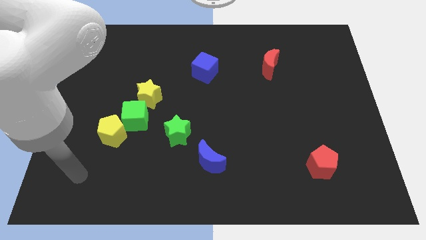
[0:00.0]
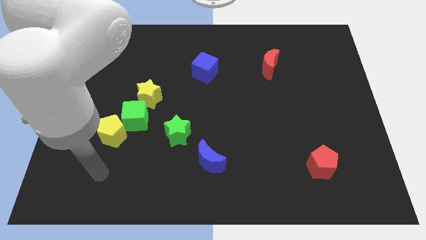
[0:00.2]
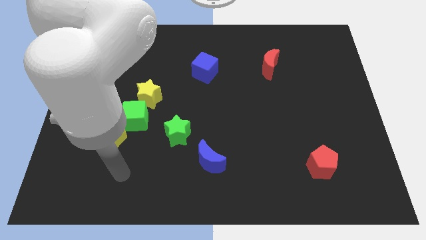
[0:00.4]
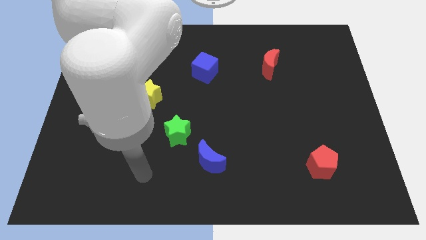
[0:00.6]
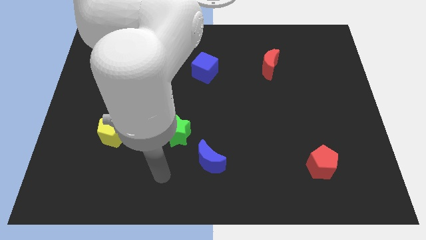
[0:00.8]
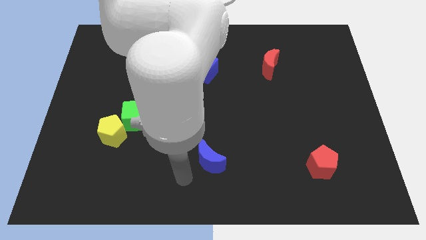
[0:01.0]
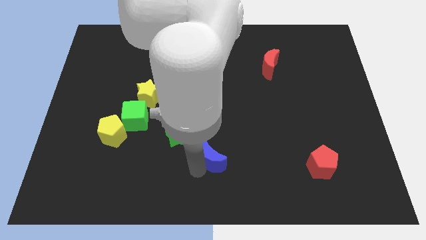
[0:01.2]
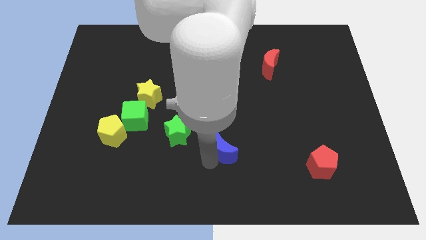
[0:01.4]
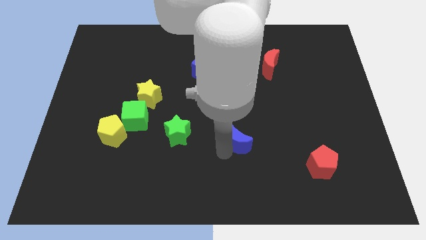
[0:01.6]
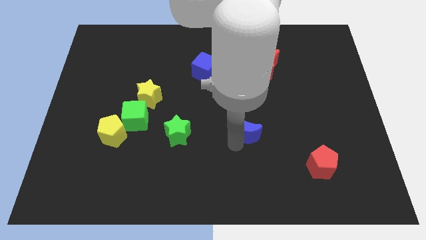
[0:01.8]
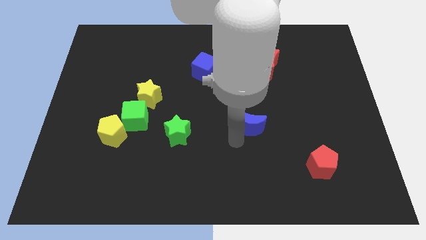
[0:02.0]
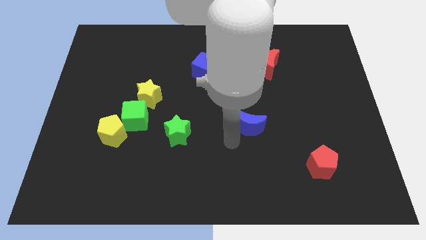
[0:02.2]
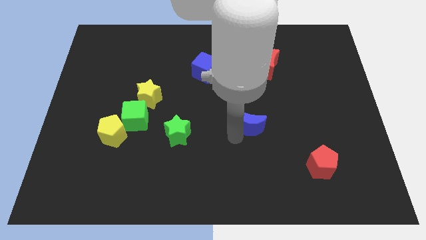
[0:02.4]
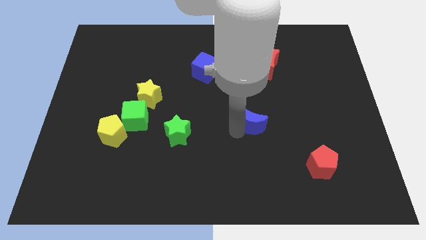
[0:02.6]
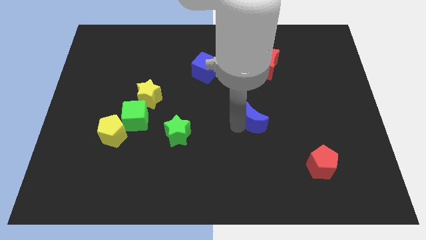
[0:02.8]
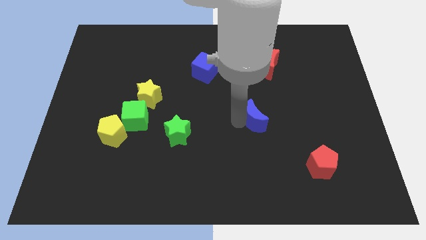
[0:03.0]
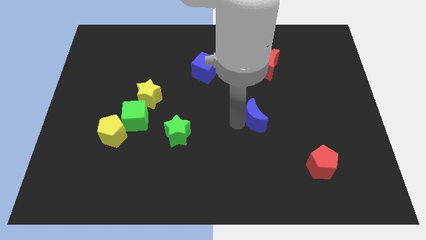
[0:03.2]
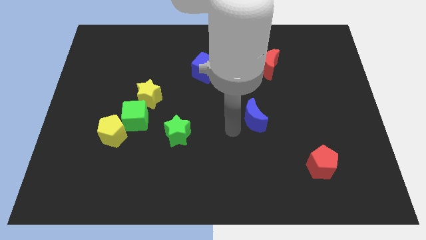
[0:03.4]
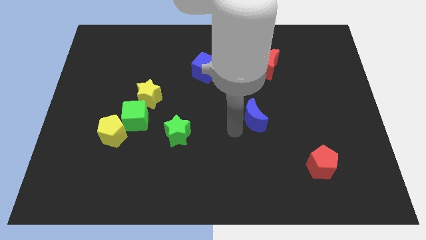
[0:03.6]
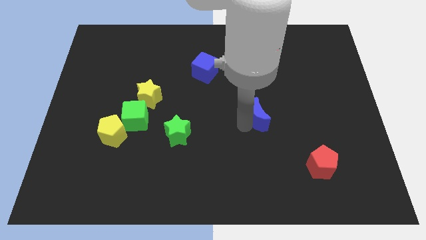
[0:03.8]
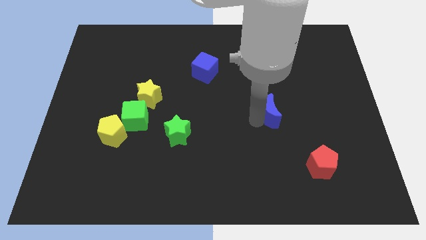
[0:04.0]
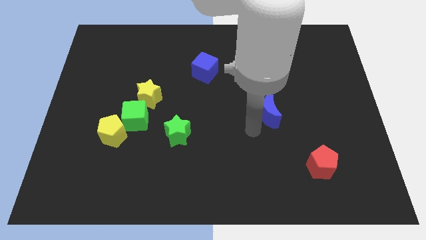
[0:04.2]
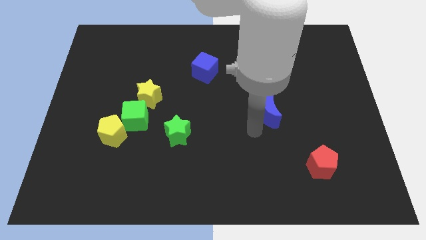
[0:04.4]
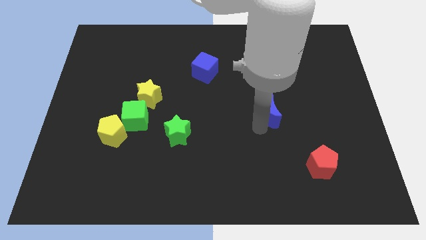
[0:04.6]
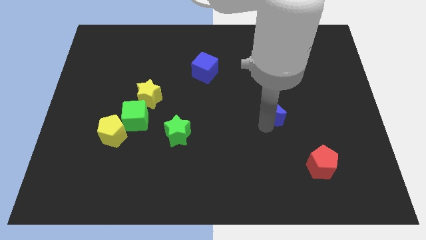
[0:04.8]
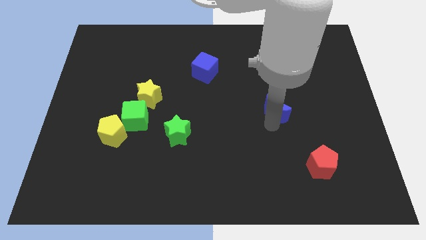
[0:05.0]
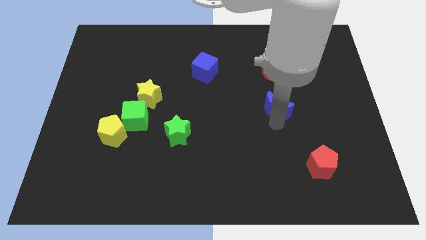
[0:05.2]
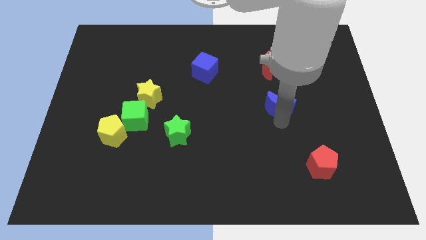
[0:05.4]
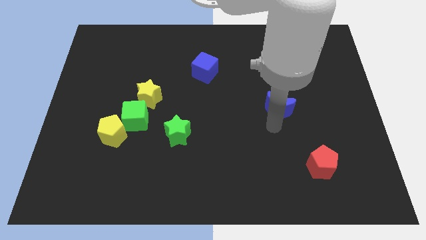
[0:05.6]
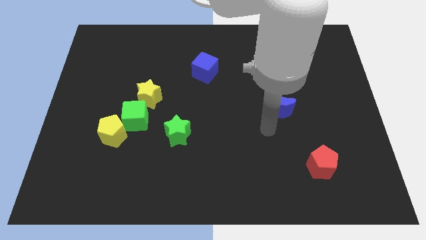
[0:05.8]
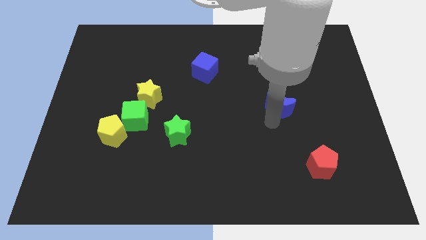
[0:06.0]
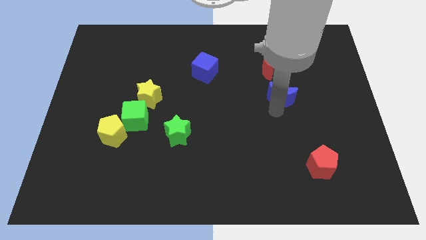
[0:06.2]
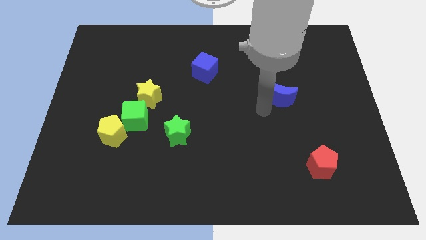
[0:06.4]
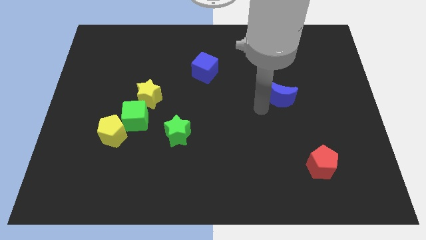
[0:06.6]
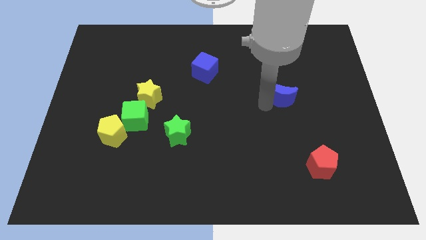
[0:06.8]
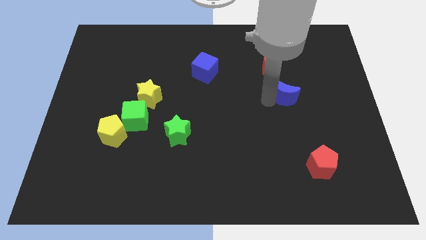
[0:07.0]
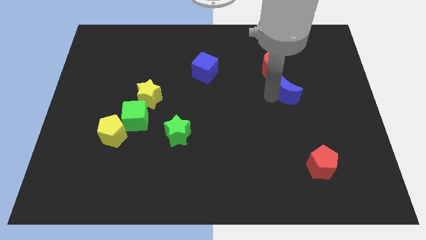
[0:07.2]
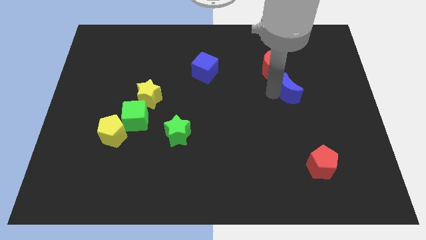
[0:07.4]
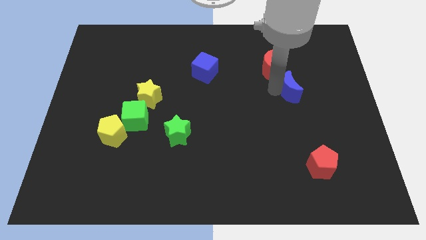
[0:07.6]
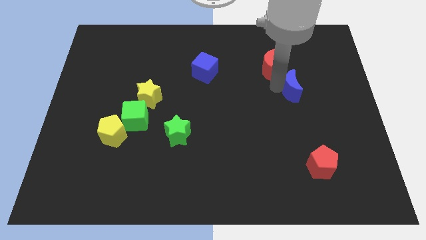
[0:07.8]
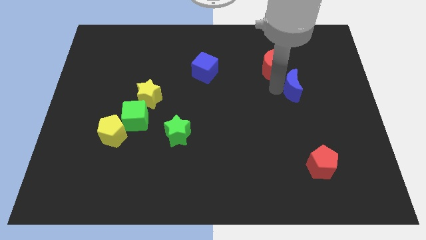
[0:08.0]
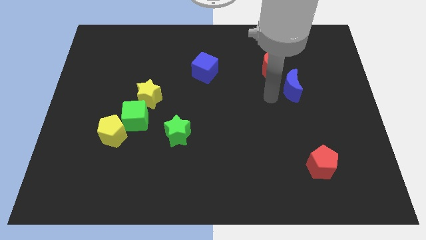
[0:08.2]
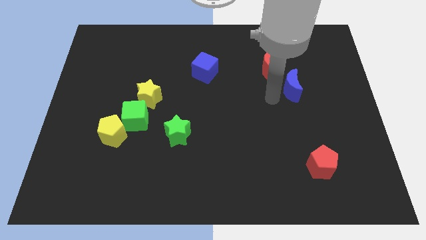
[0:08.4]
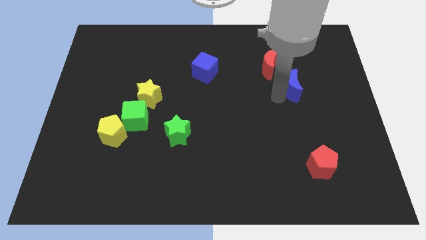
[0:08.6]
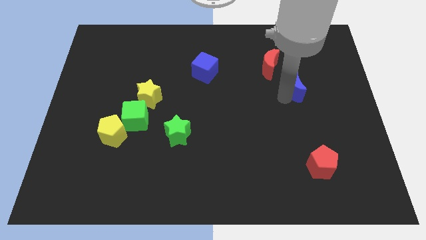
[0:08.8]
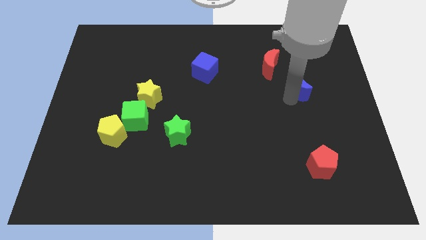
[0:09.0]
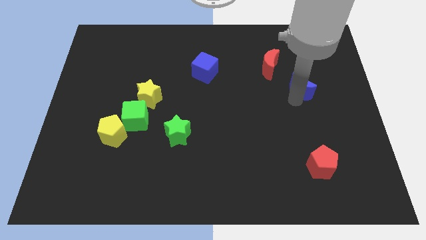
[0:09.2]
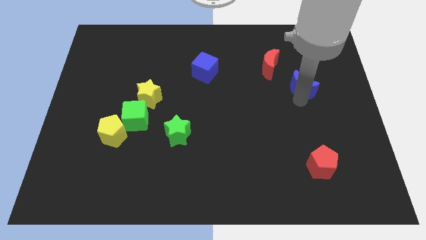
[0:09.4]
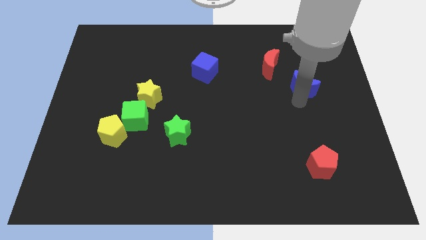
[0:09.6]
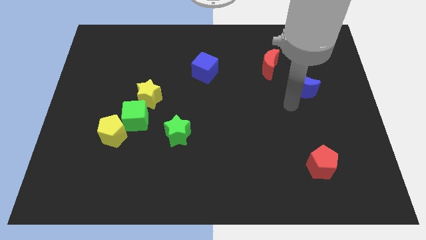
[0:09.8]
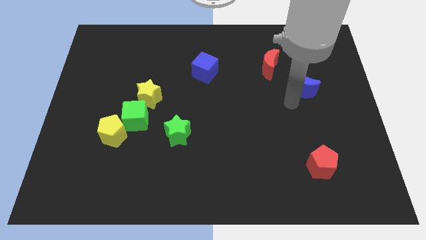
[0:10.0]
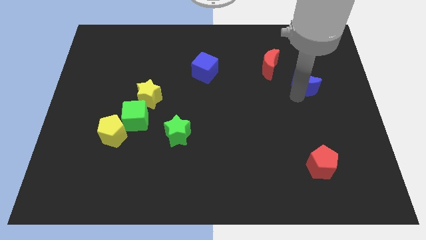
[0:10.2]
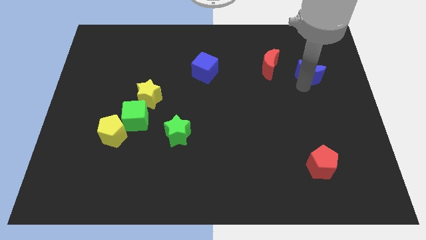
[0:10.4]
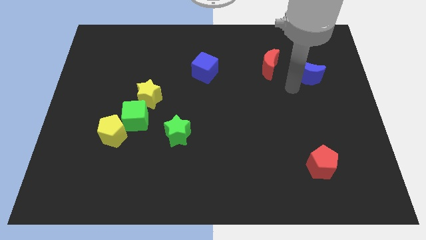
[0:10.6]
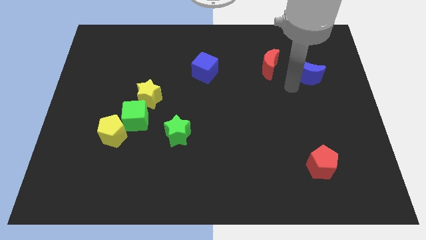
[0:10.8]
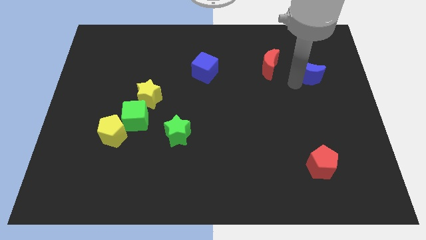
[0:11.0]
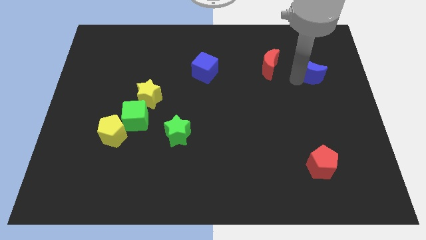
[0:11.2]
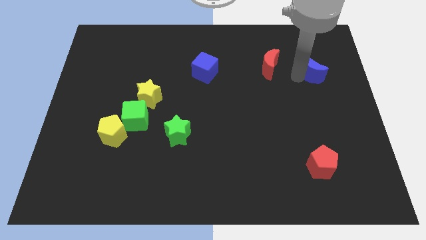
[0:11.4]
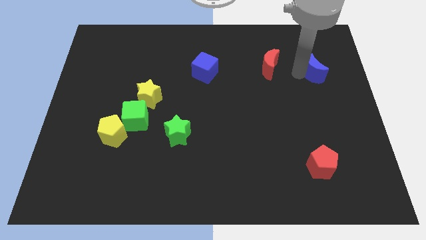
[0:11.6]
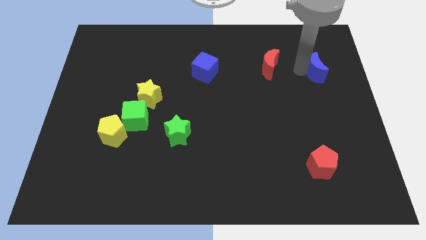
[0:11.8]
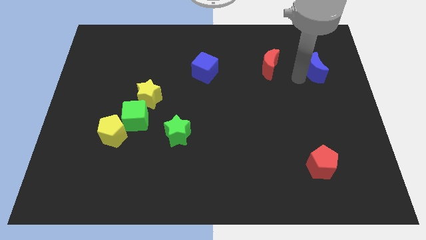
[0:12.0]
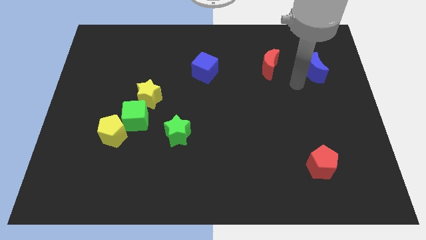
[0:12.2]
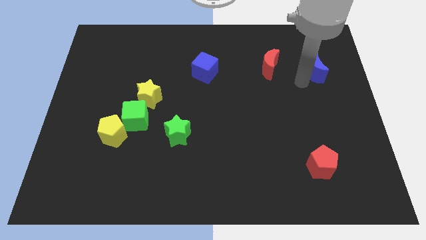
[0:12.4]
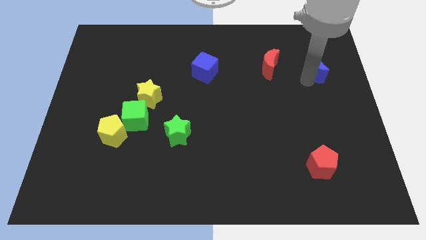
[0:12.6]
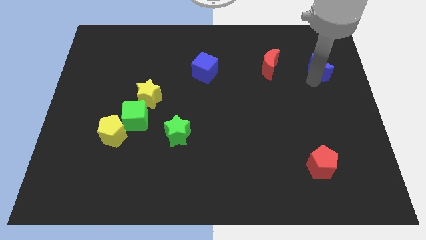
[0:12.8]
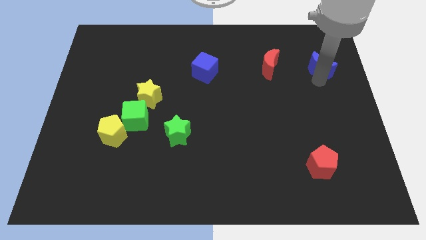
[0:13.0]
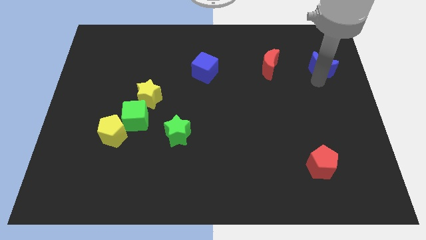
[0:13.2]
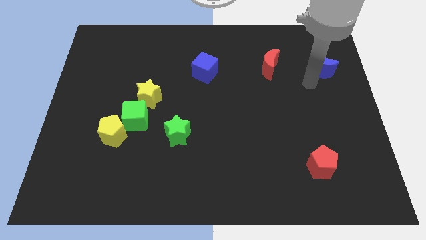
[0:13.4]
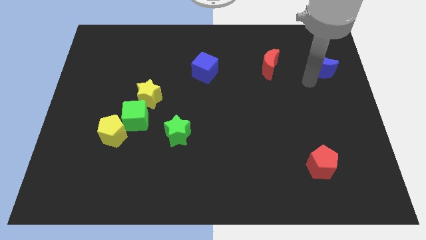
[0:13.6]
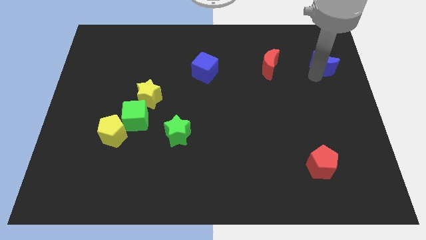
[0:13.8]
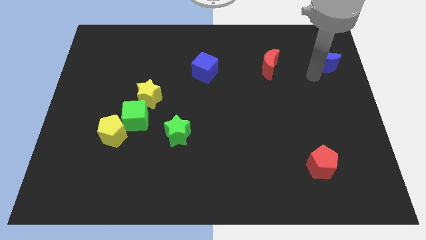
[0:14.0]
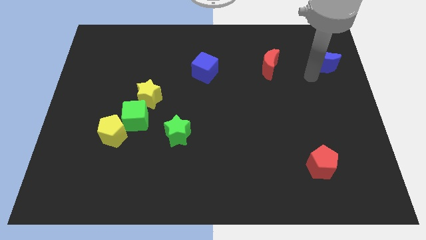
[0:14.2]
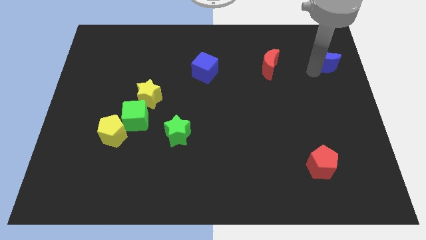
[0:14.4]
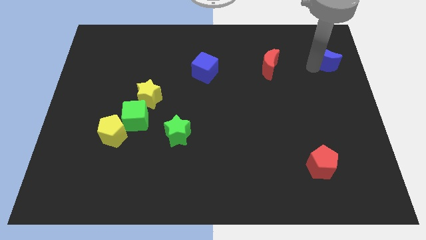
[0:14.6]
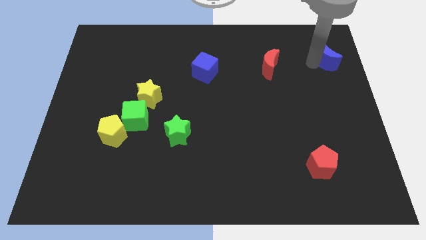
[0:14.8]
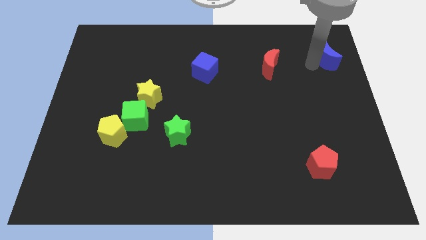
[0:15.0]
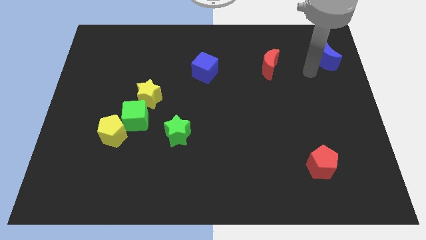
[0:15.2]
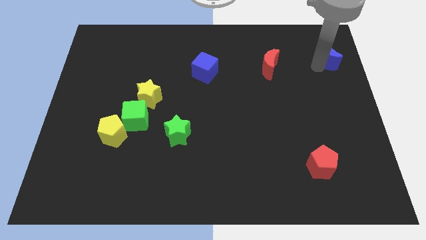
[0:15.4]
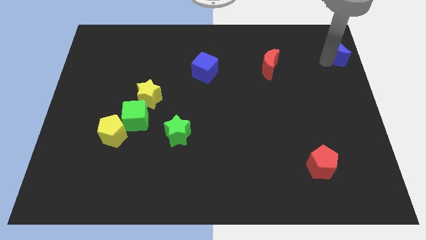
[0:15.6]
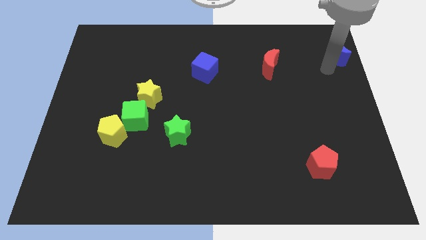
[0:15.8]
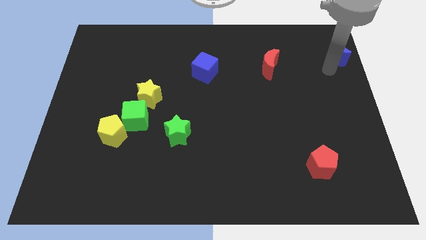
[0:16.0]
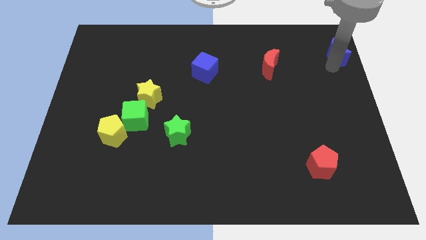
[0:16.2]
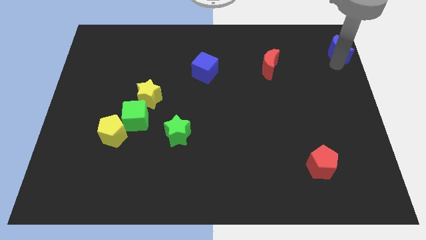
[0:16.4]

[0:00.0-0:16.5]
put the blue moon to the top right of the board
